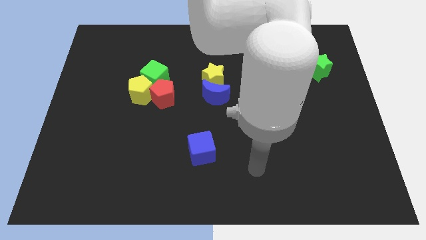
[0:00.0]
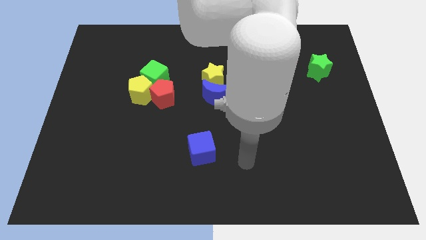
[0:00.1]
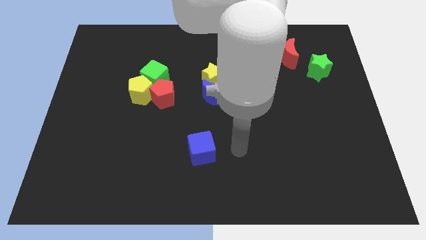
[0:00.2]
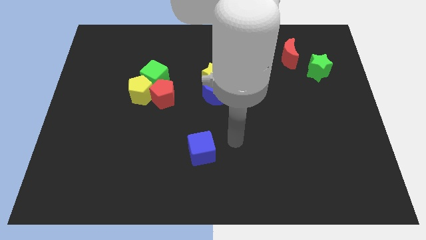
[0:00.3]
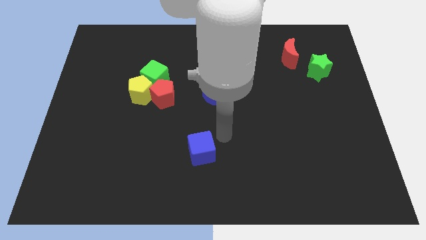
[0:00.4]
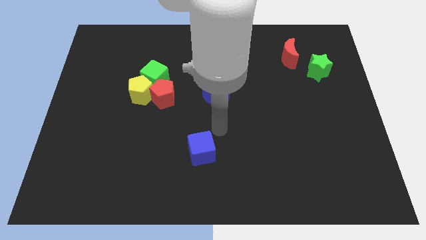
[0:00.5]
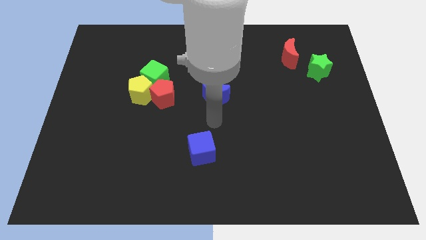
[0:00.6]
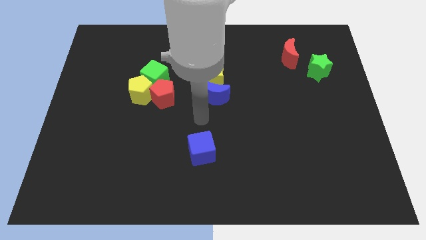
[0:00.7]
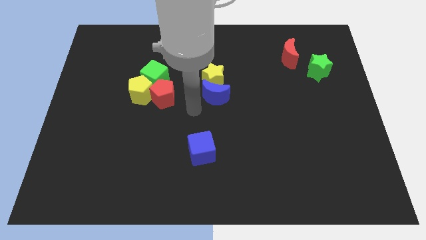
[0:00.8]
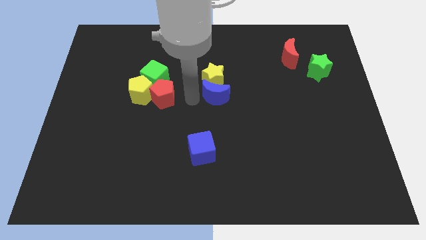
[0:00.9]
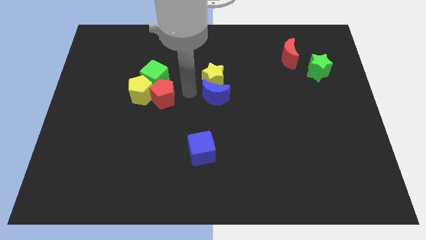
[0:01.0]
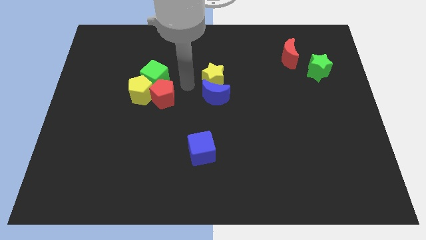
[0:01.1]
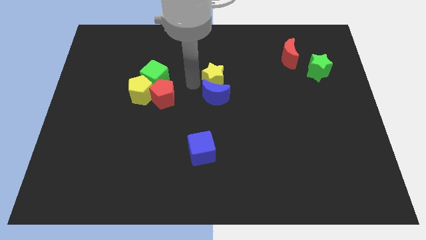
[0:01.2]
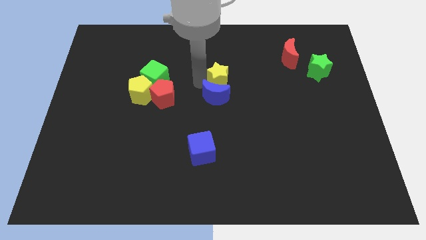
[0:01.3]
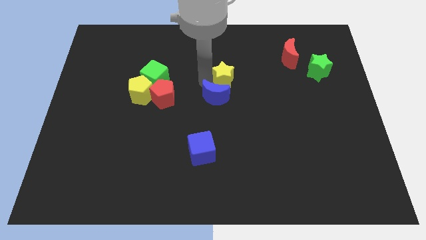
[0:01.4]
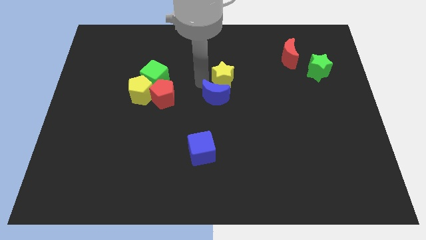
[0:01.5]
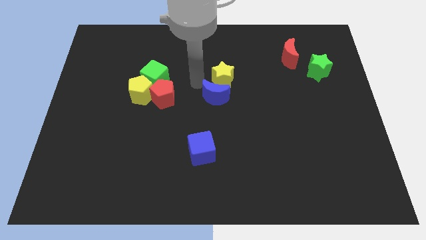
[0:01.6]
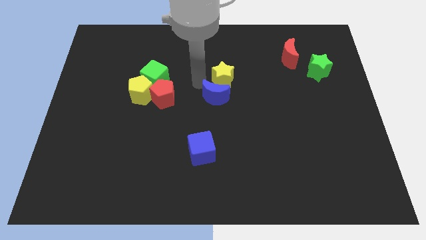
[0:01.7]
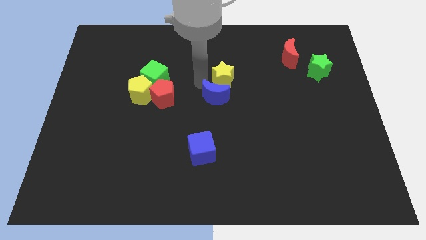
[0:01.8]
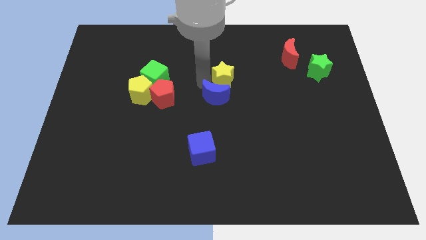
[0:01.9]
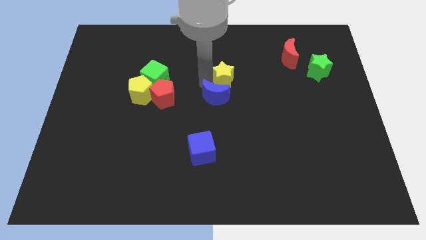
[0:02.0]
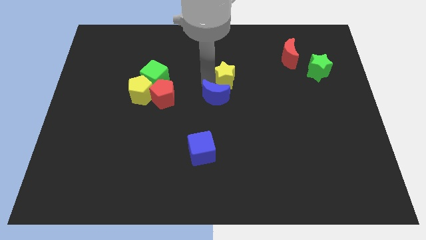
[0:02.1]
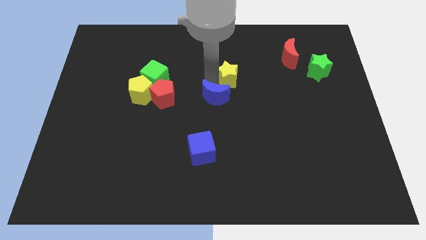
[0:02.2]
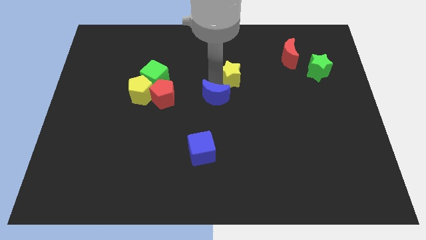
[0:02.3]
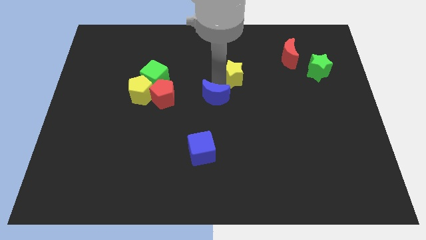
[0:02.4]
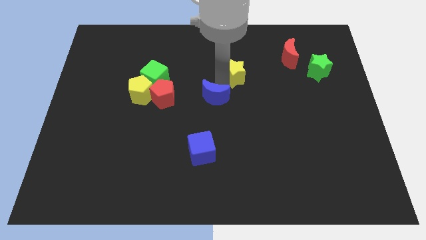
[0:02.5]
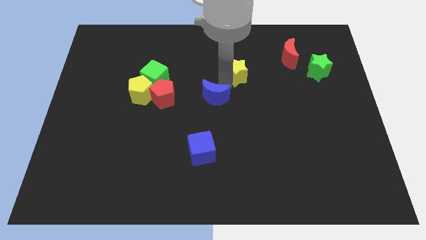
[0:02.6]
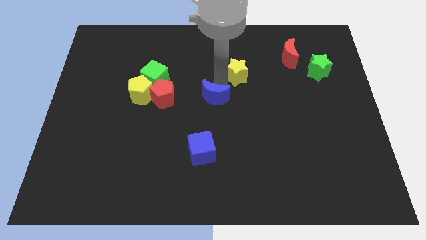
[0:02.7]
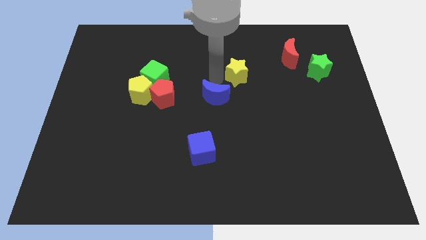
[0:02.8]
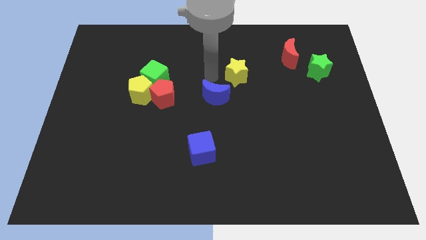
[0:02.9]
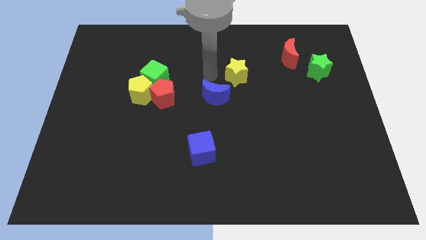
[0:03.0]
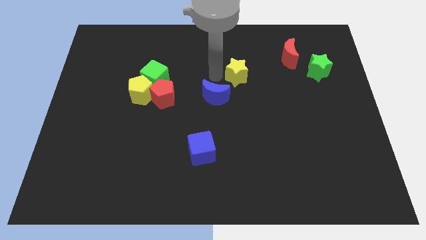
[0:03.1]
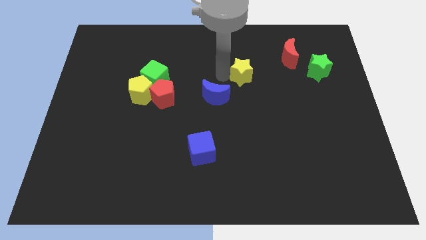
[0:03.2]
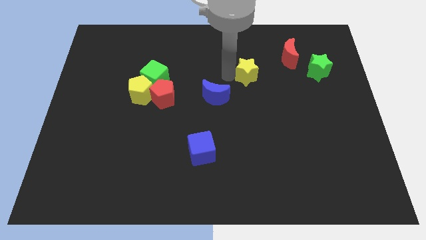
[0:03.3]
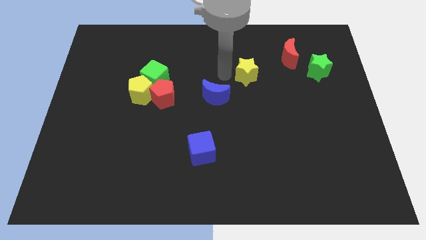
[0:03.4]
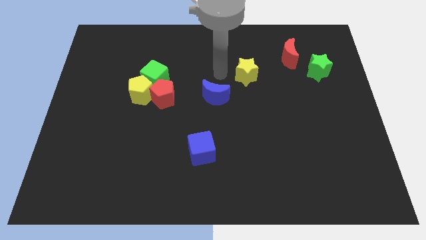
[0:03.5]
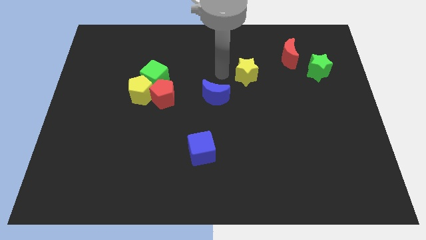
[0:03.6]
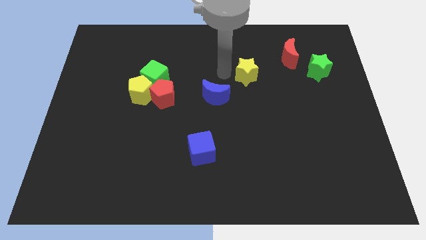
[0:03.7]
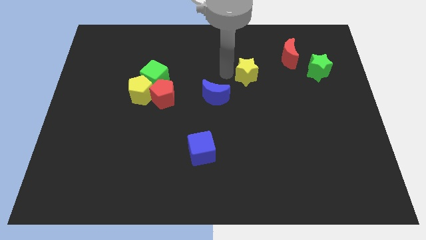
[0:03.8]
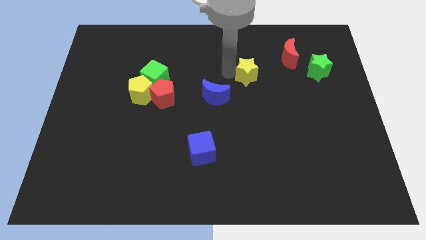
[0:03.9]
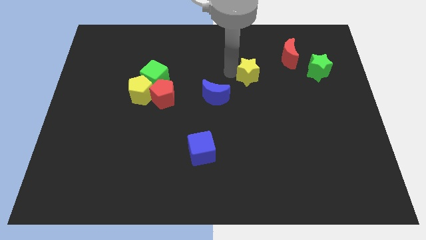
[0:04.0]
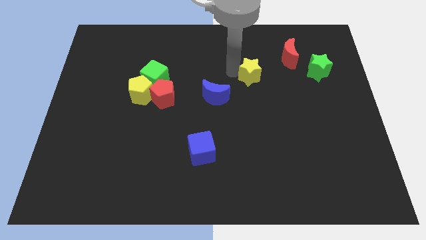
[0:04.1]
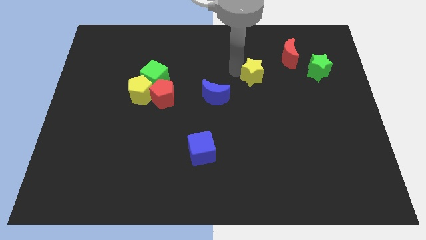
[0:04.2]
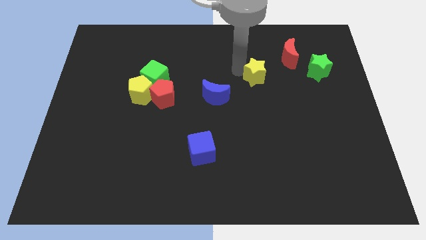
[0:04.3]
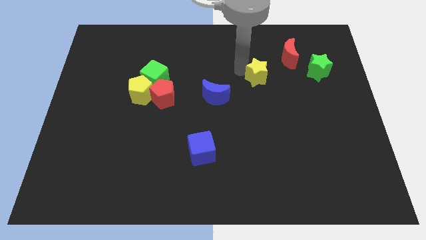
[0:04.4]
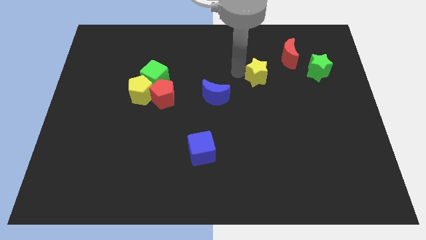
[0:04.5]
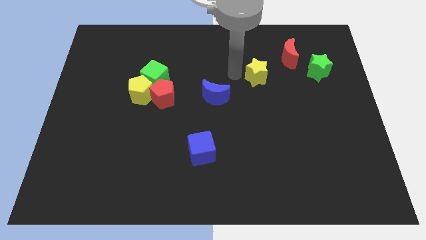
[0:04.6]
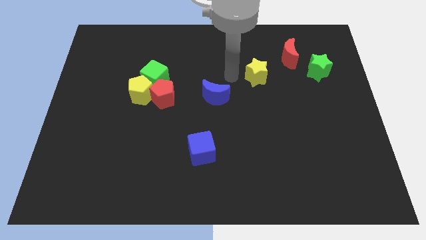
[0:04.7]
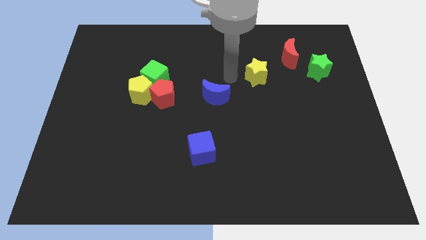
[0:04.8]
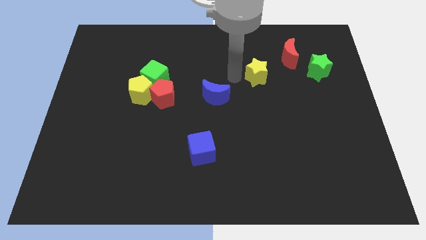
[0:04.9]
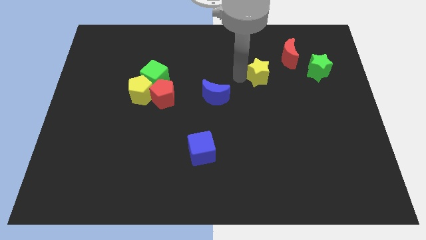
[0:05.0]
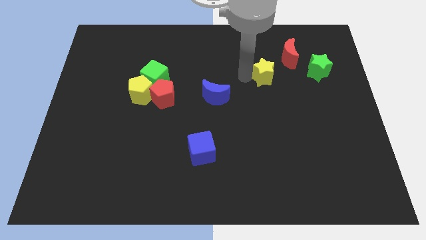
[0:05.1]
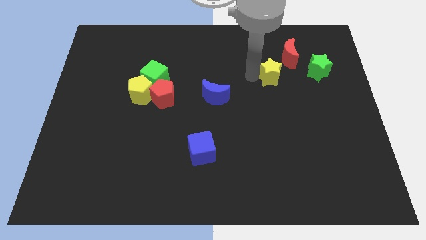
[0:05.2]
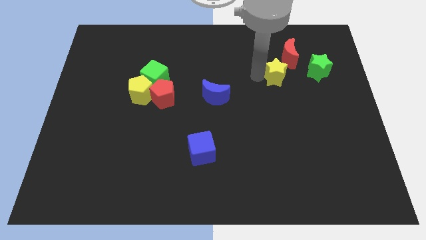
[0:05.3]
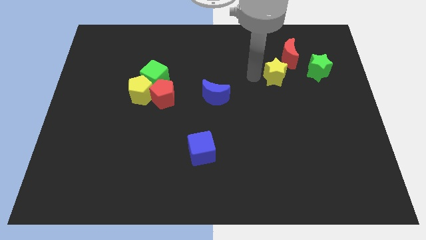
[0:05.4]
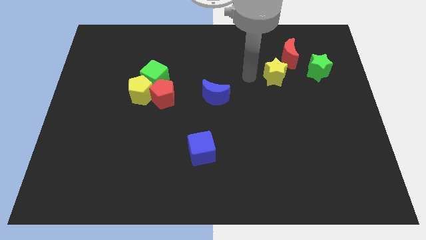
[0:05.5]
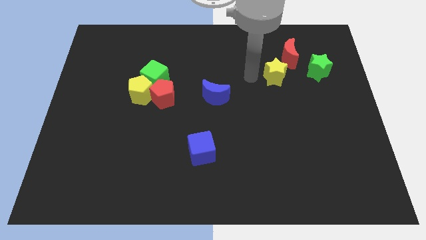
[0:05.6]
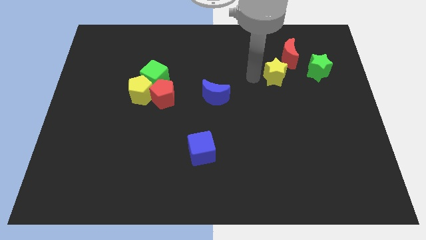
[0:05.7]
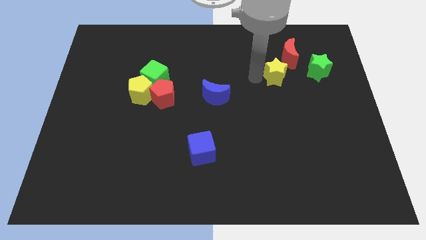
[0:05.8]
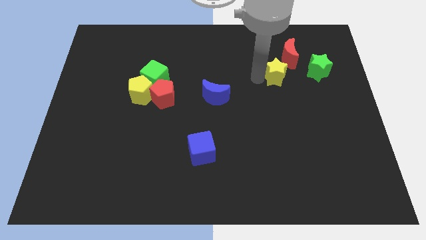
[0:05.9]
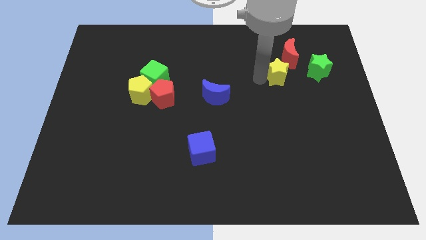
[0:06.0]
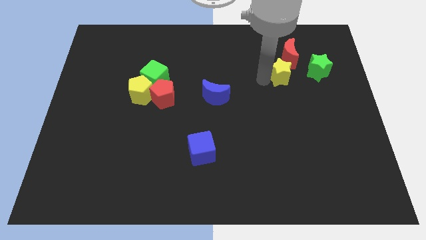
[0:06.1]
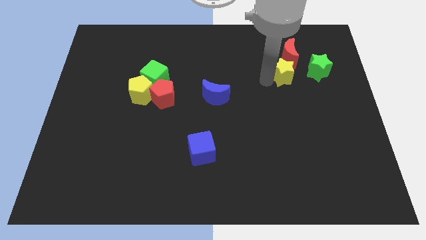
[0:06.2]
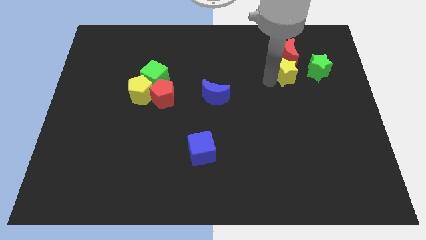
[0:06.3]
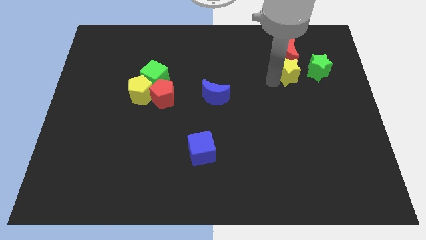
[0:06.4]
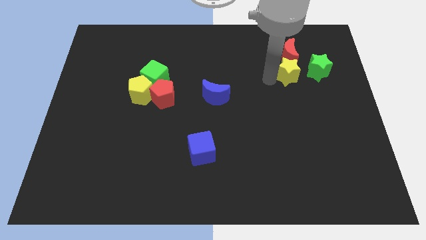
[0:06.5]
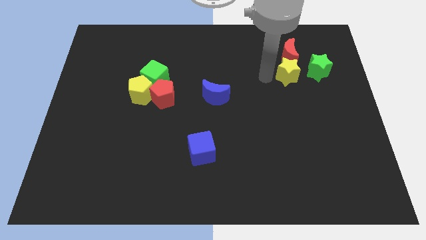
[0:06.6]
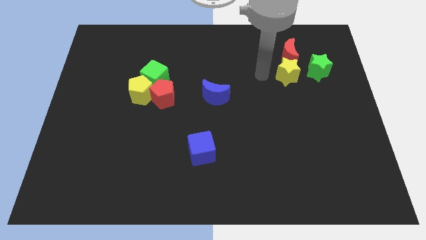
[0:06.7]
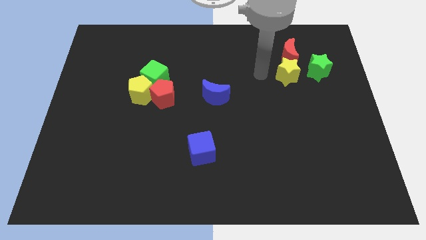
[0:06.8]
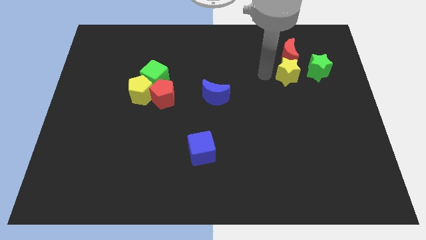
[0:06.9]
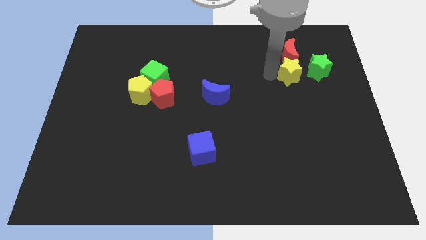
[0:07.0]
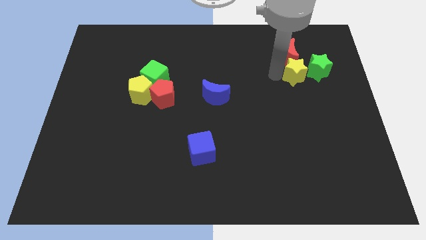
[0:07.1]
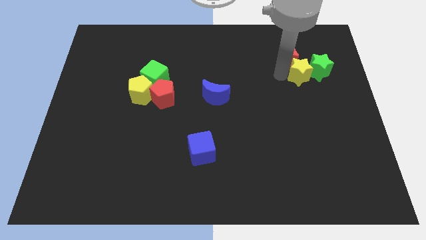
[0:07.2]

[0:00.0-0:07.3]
push the yellow star towards the green star
